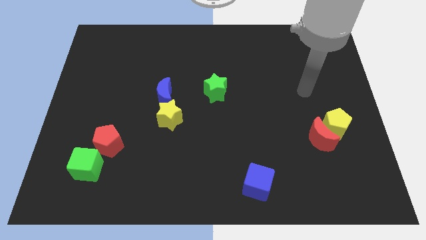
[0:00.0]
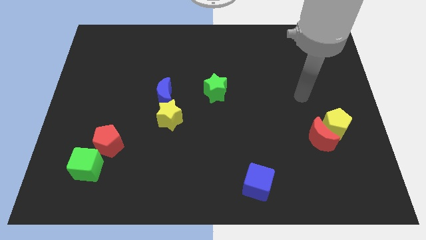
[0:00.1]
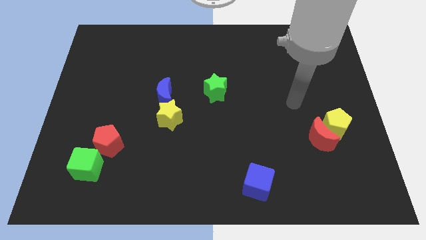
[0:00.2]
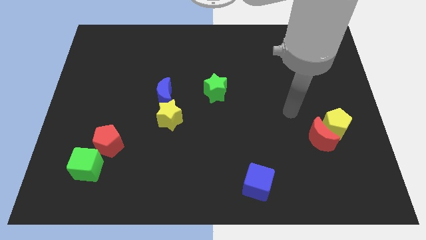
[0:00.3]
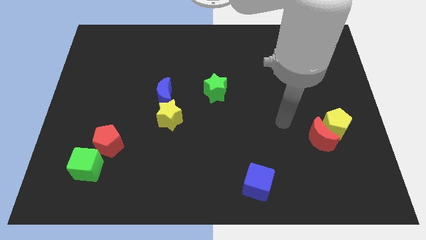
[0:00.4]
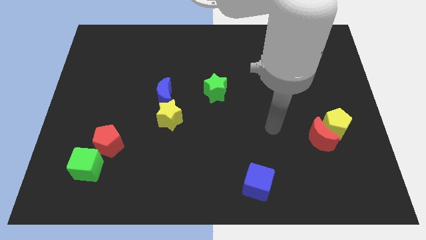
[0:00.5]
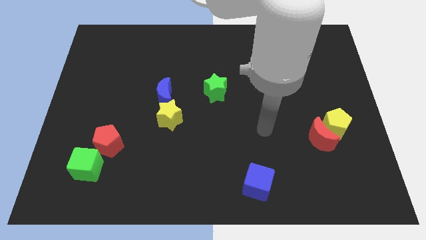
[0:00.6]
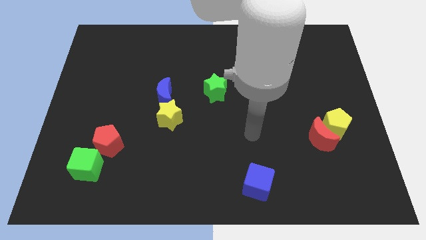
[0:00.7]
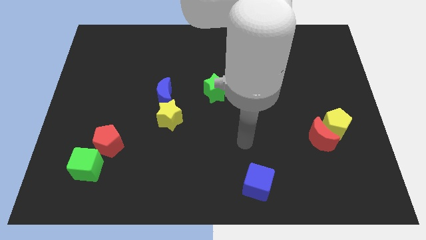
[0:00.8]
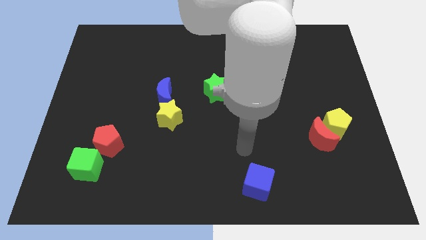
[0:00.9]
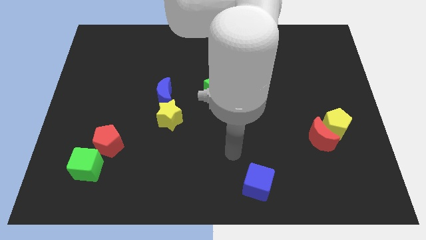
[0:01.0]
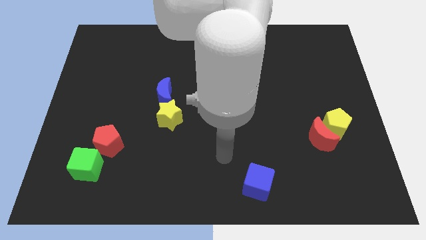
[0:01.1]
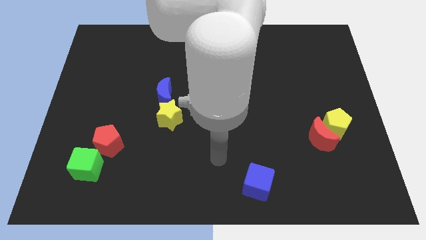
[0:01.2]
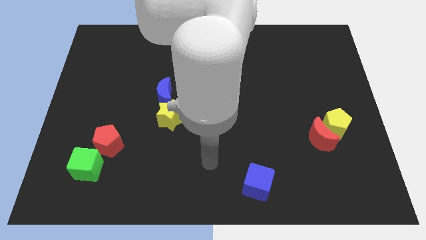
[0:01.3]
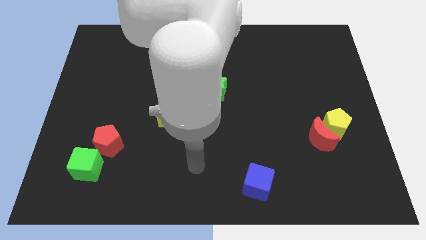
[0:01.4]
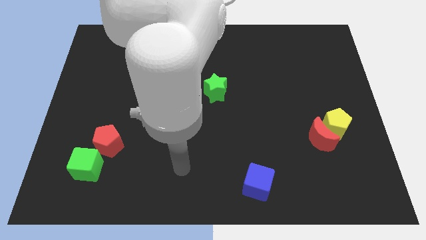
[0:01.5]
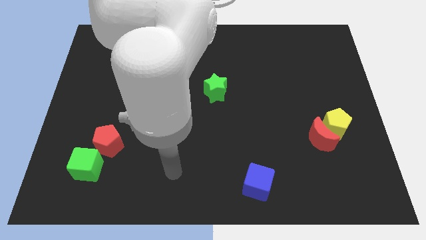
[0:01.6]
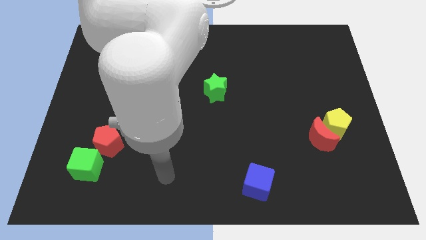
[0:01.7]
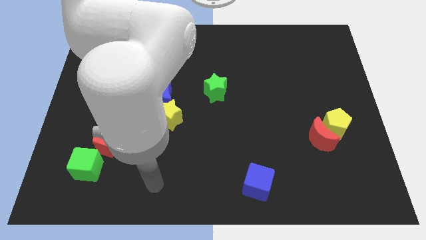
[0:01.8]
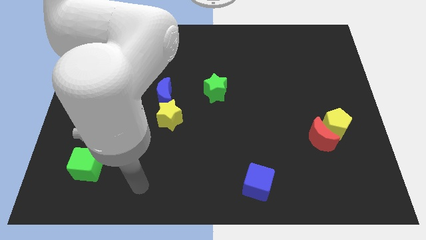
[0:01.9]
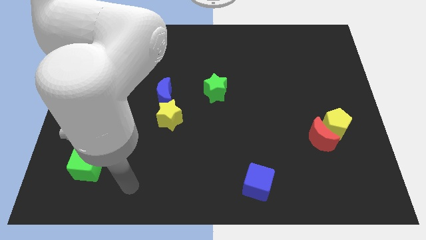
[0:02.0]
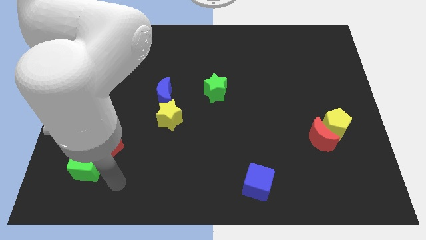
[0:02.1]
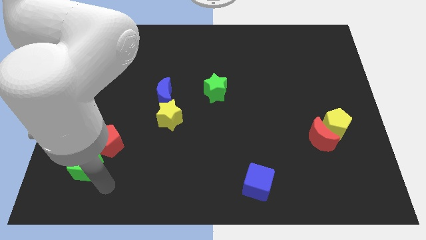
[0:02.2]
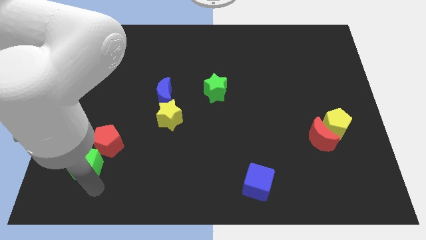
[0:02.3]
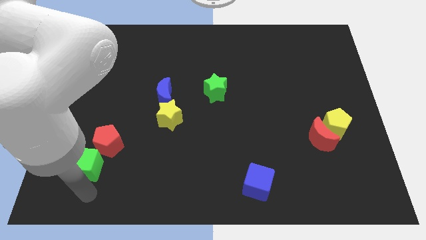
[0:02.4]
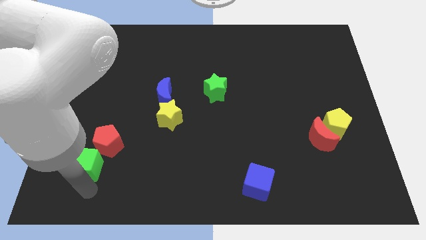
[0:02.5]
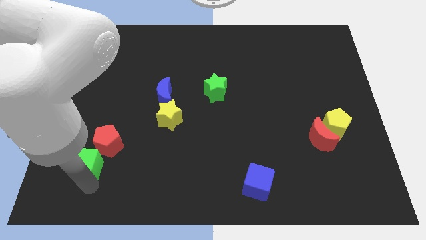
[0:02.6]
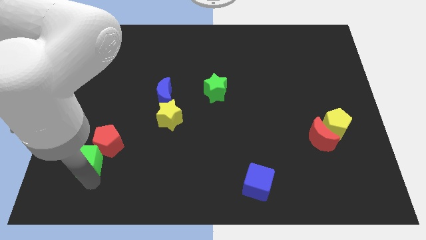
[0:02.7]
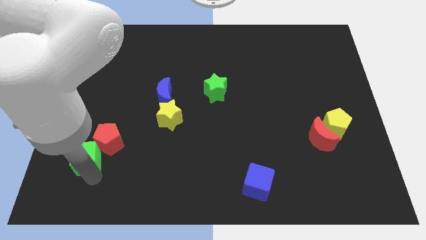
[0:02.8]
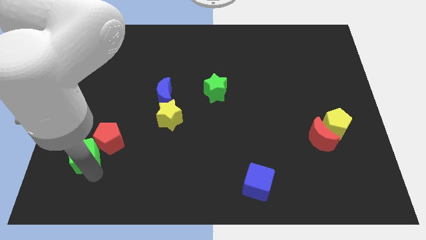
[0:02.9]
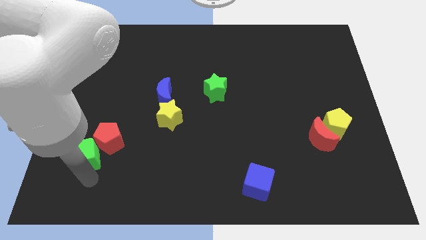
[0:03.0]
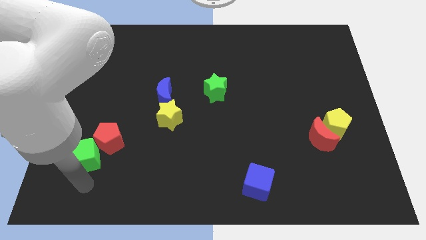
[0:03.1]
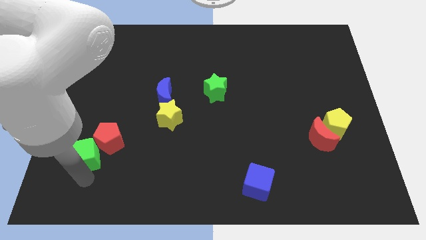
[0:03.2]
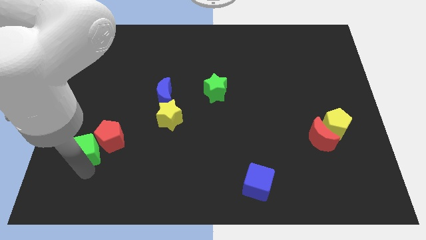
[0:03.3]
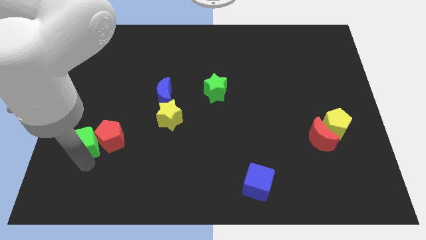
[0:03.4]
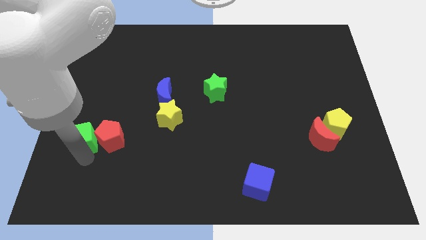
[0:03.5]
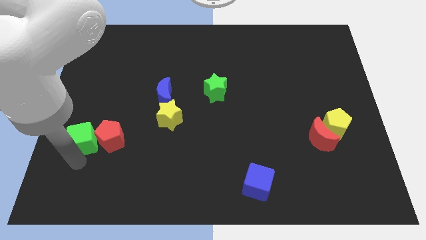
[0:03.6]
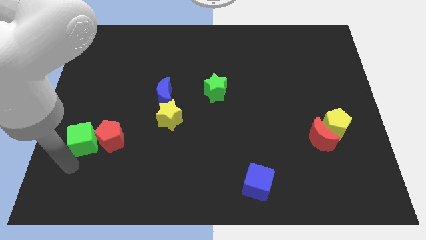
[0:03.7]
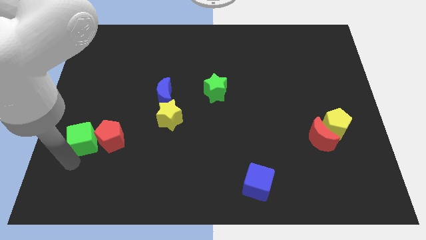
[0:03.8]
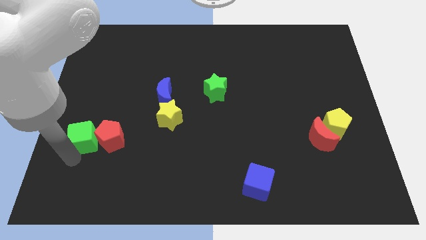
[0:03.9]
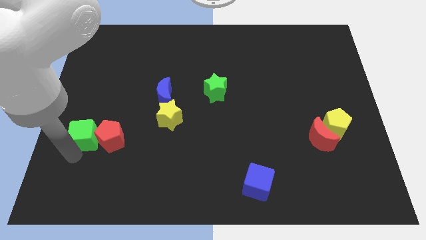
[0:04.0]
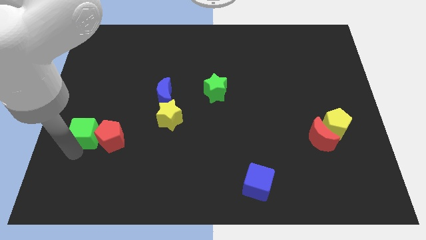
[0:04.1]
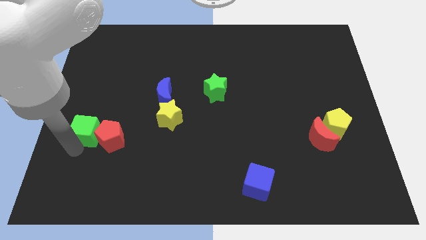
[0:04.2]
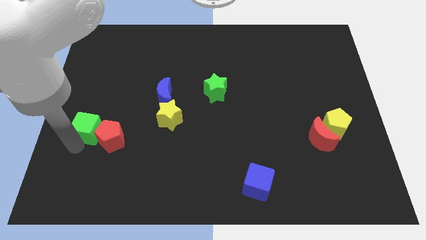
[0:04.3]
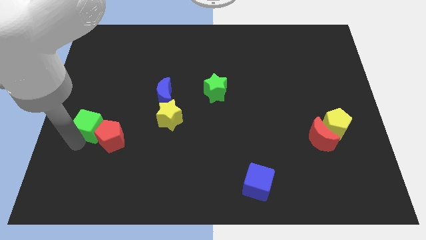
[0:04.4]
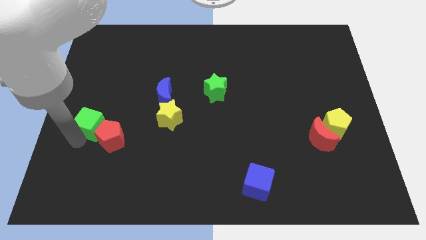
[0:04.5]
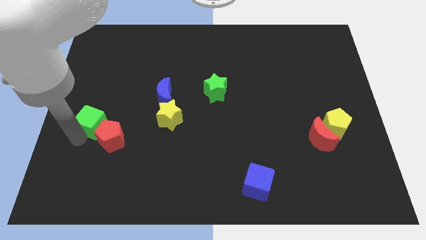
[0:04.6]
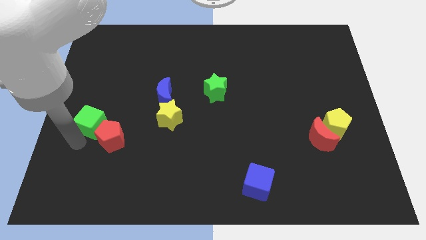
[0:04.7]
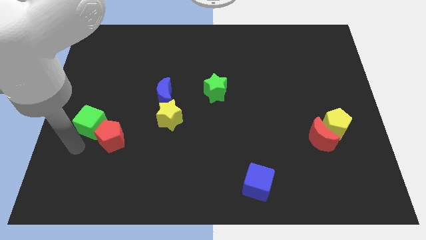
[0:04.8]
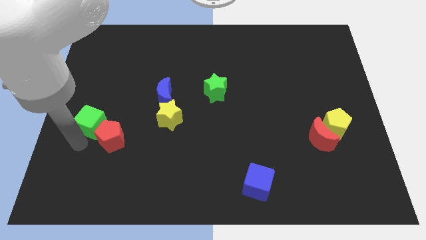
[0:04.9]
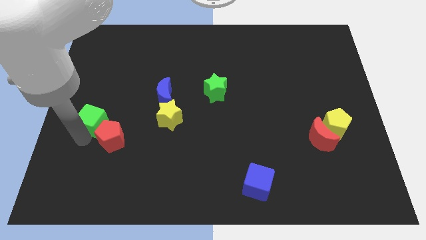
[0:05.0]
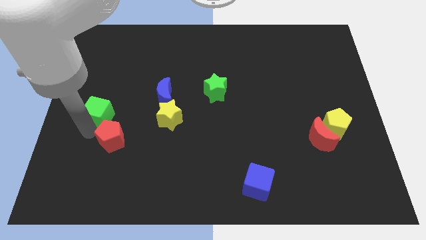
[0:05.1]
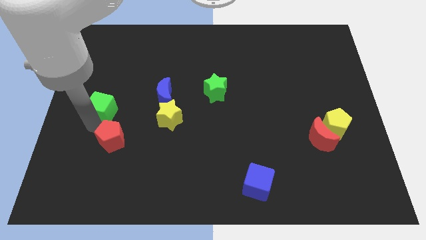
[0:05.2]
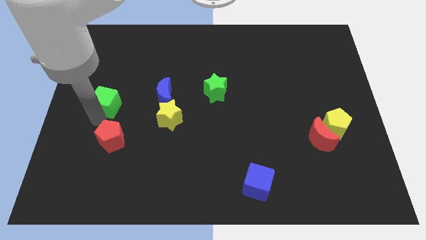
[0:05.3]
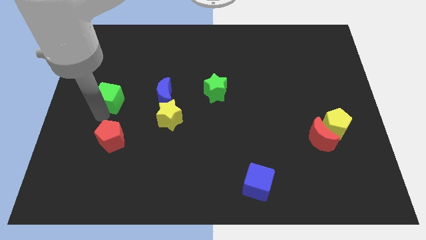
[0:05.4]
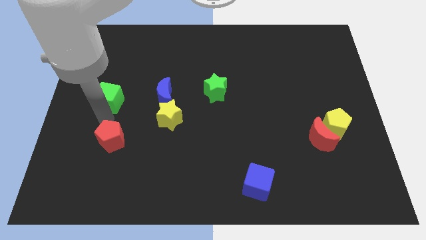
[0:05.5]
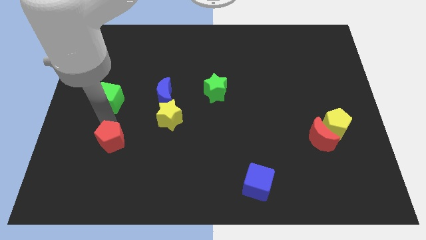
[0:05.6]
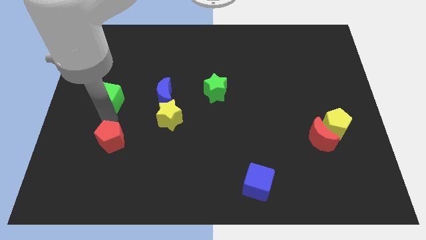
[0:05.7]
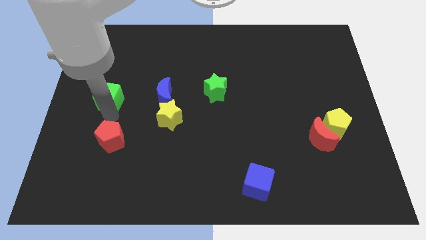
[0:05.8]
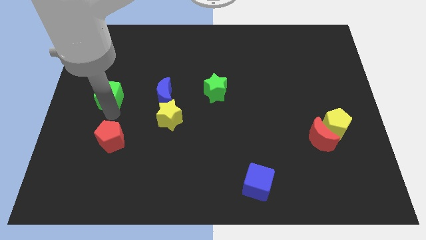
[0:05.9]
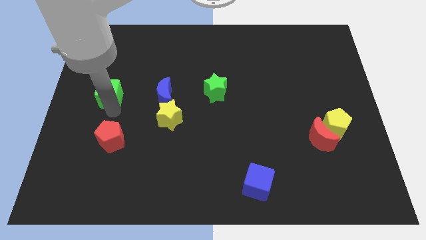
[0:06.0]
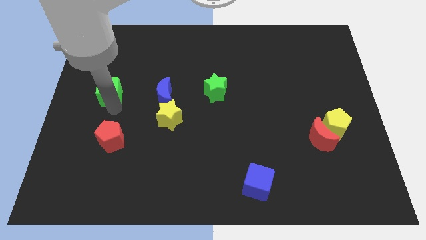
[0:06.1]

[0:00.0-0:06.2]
slide the green cube up

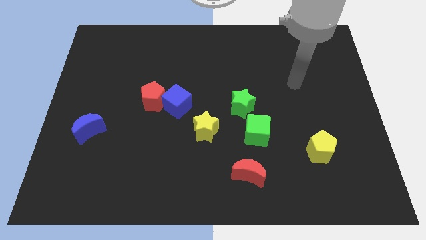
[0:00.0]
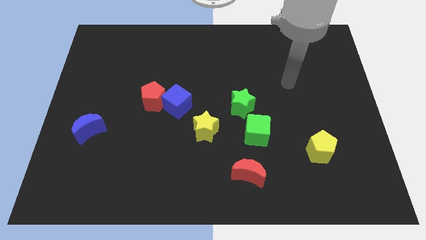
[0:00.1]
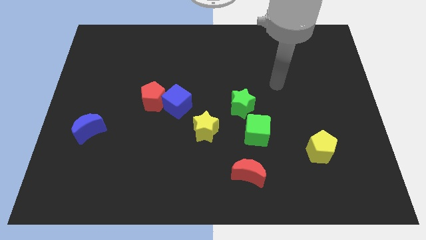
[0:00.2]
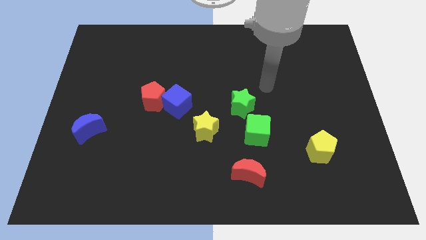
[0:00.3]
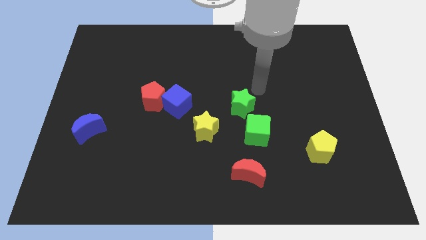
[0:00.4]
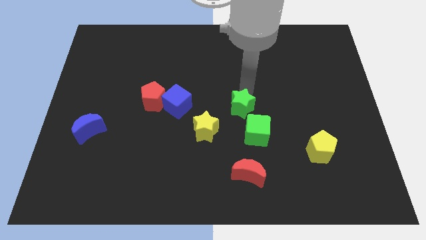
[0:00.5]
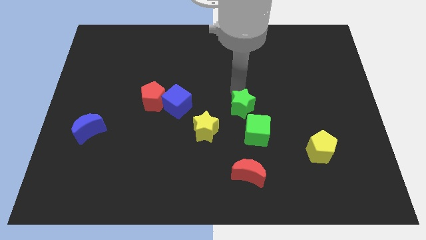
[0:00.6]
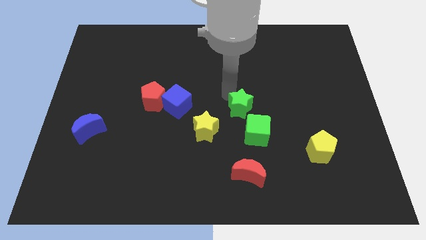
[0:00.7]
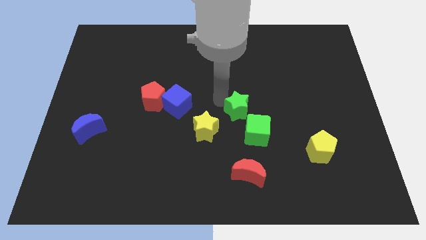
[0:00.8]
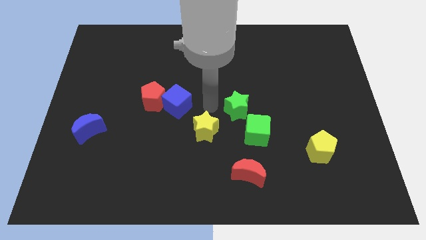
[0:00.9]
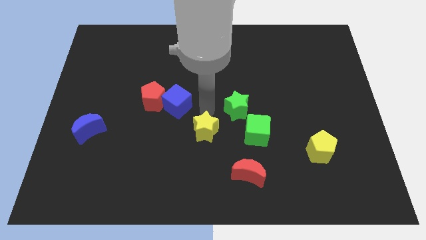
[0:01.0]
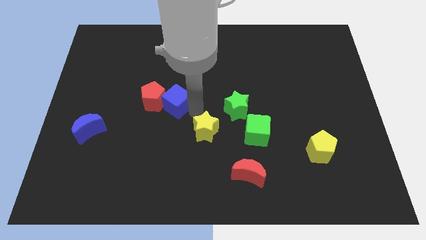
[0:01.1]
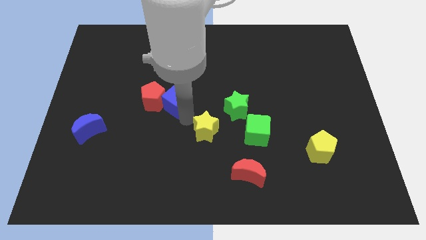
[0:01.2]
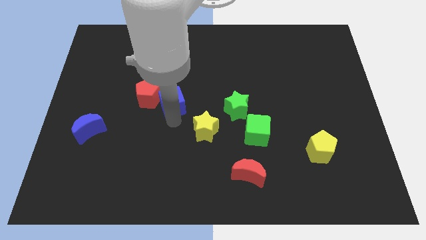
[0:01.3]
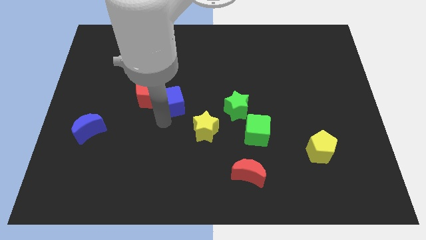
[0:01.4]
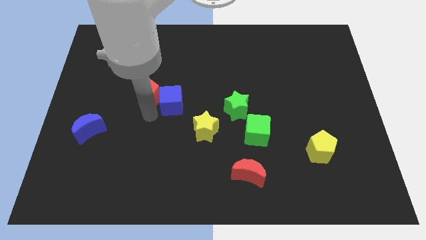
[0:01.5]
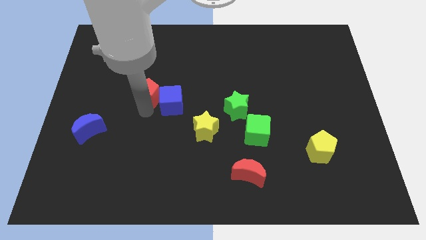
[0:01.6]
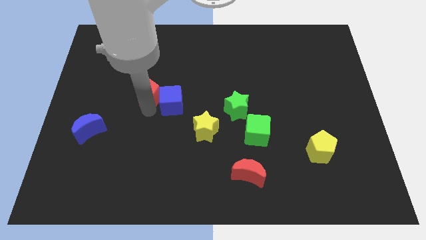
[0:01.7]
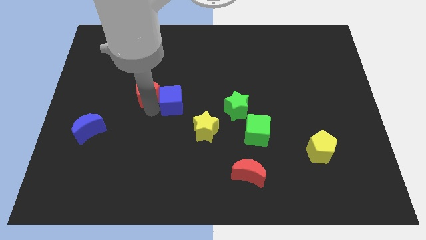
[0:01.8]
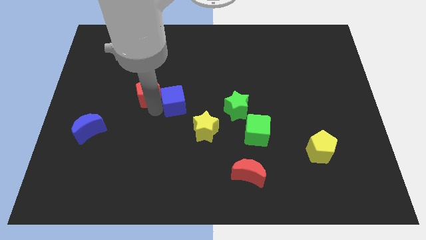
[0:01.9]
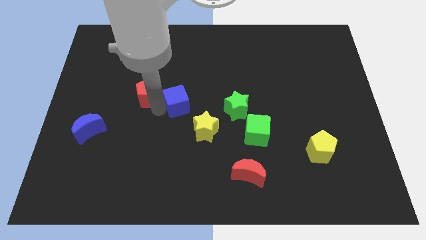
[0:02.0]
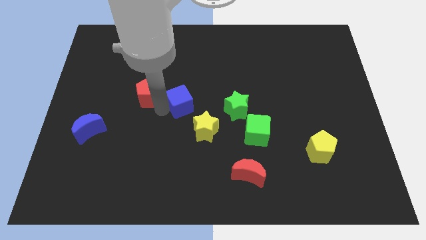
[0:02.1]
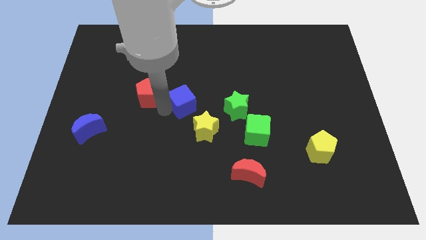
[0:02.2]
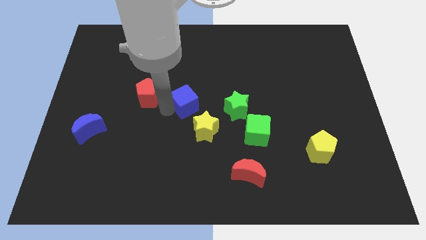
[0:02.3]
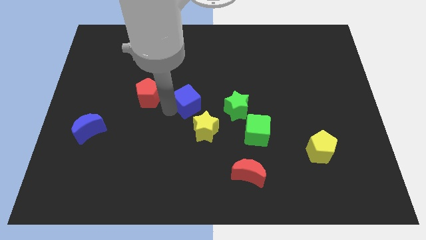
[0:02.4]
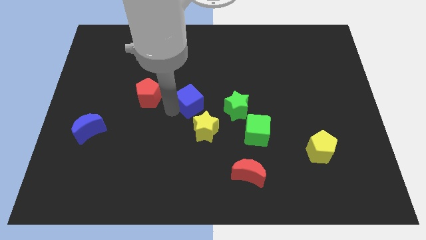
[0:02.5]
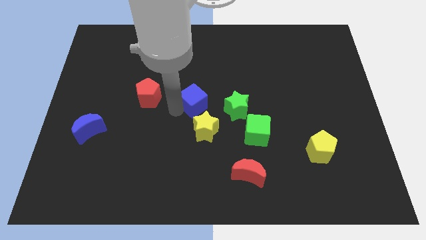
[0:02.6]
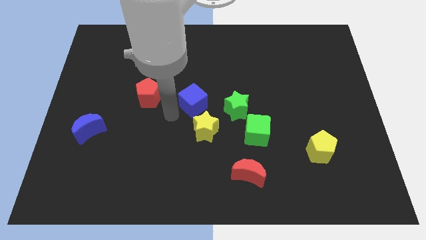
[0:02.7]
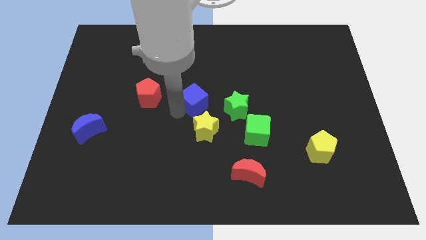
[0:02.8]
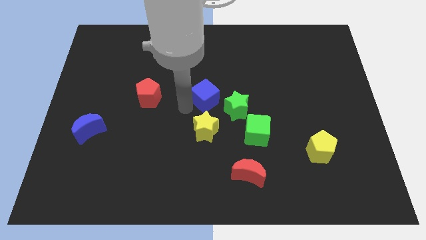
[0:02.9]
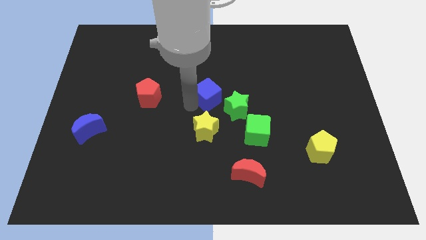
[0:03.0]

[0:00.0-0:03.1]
push the blue cube to the right somewhat
